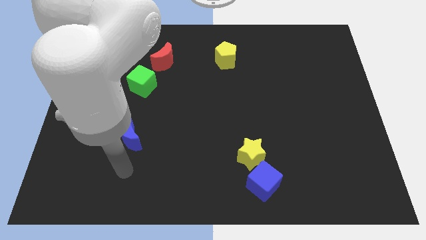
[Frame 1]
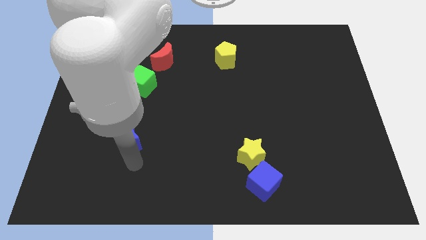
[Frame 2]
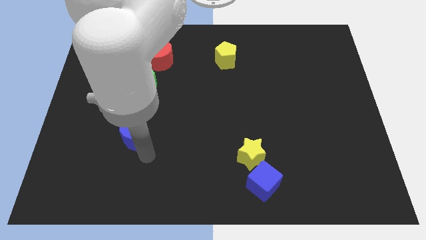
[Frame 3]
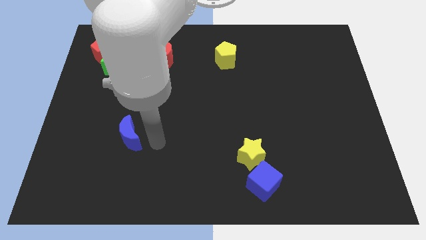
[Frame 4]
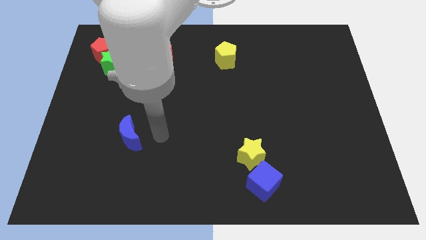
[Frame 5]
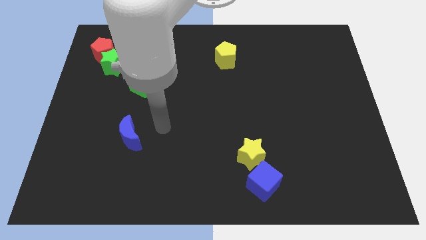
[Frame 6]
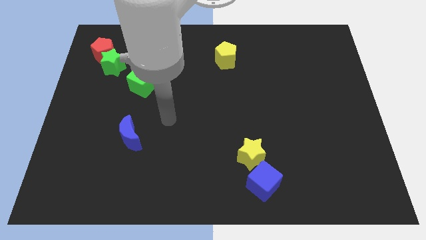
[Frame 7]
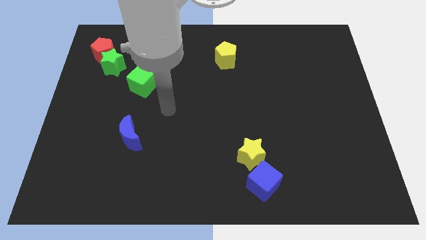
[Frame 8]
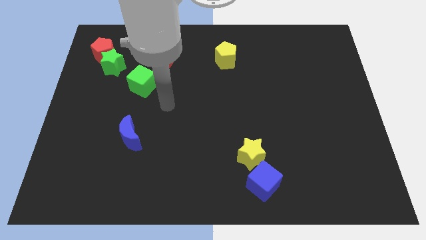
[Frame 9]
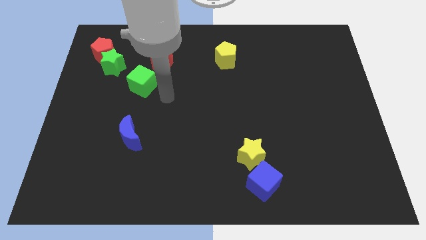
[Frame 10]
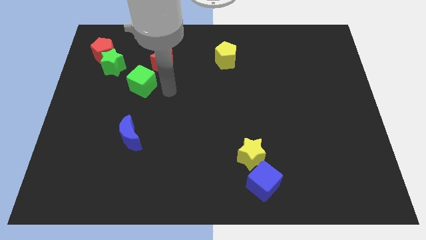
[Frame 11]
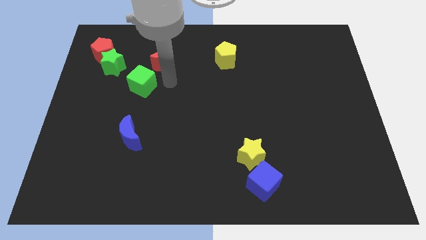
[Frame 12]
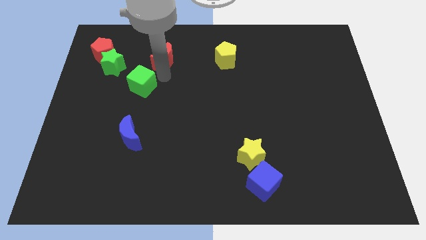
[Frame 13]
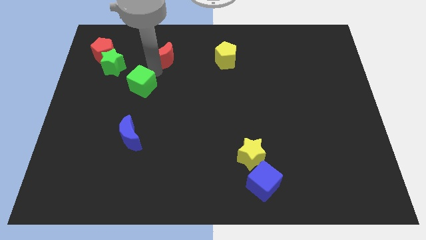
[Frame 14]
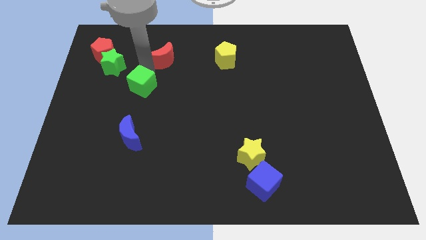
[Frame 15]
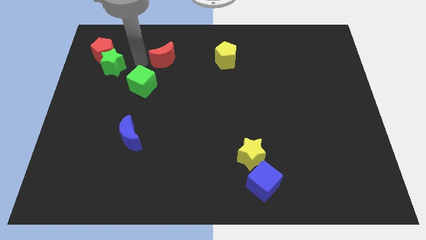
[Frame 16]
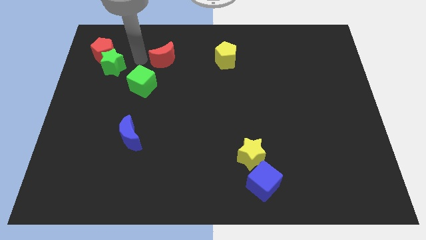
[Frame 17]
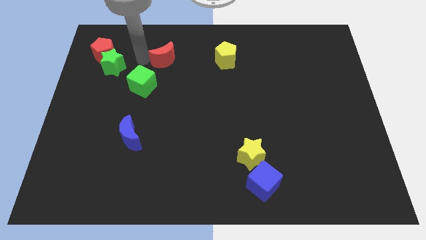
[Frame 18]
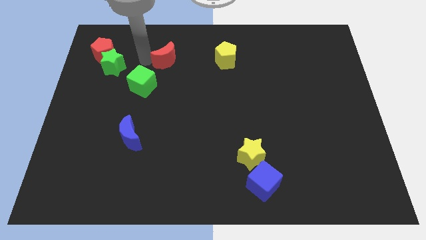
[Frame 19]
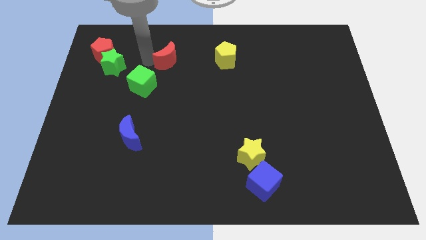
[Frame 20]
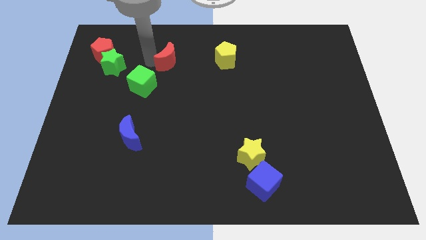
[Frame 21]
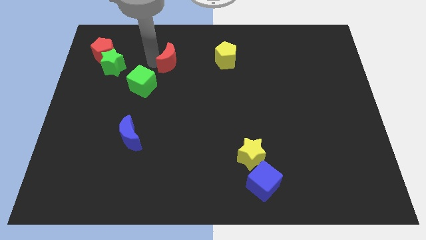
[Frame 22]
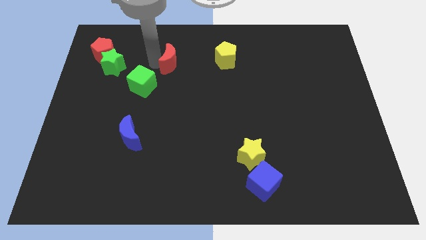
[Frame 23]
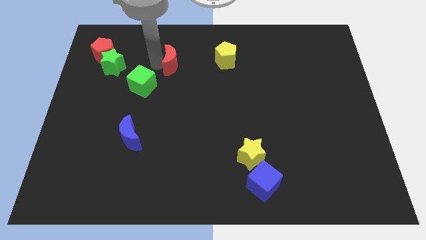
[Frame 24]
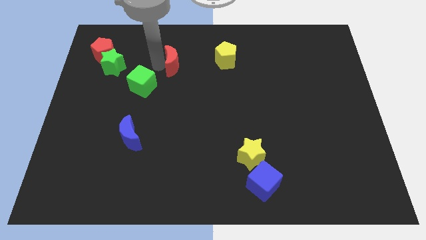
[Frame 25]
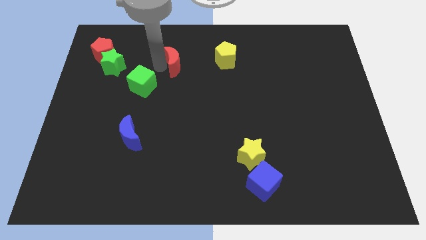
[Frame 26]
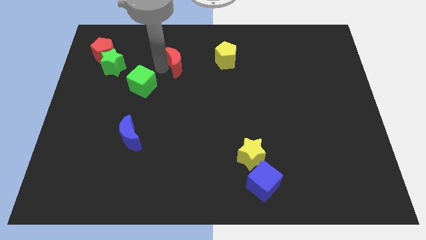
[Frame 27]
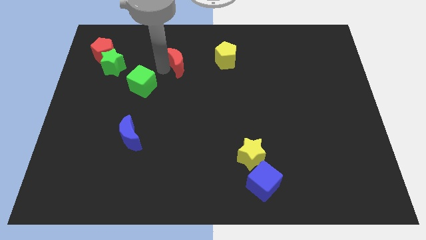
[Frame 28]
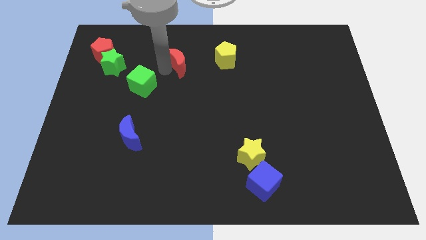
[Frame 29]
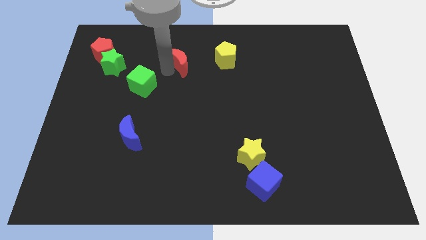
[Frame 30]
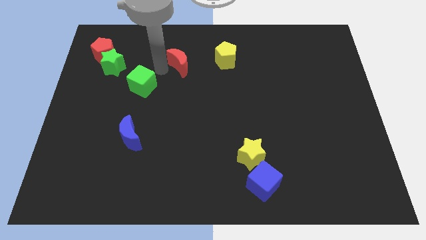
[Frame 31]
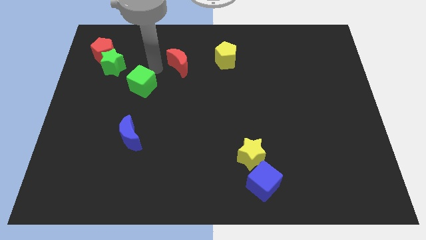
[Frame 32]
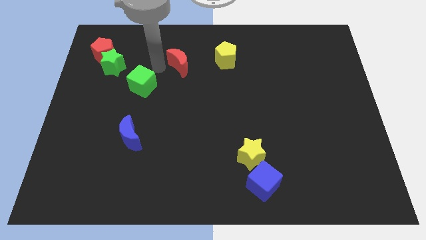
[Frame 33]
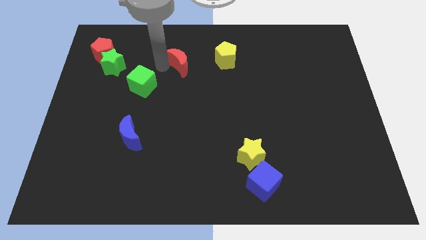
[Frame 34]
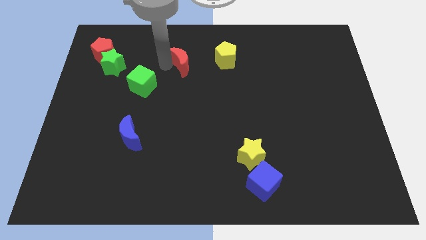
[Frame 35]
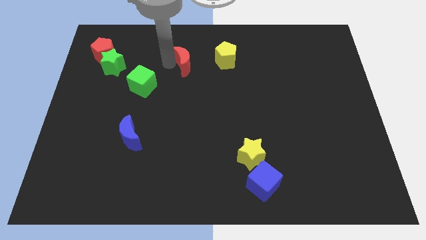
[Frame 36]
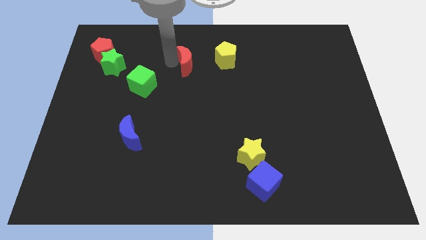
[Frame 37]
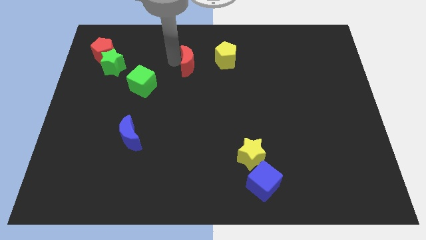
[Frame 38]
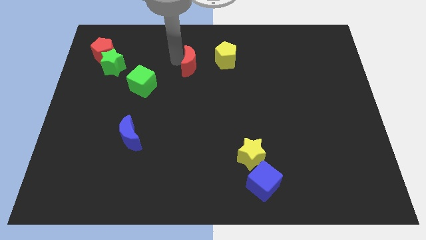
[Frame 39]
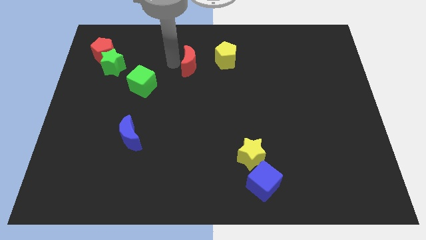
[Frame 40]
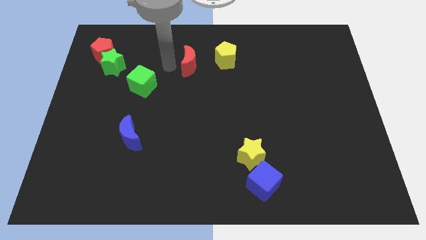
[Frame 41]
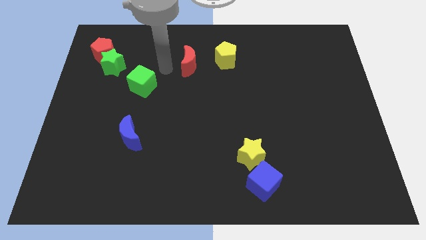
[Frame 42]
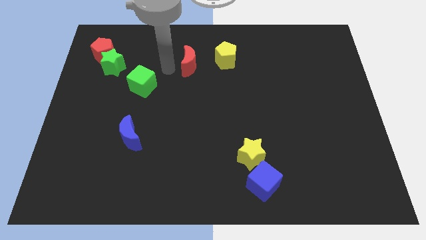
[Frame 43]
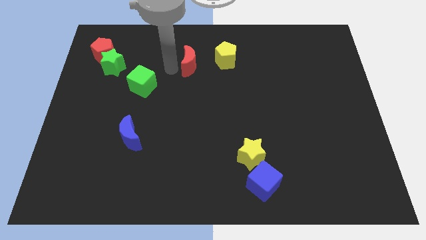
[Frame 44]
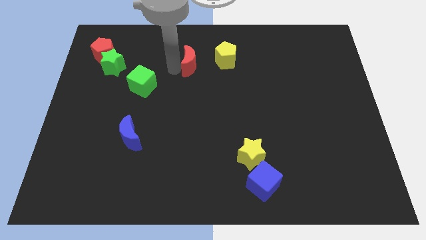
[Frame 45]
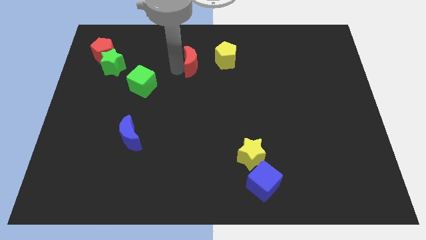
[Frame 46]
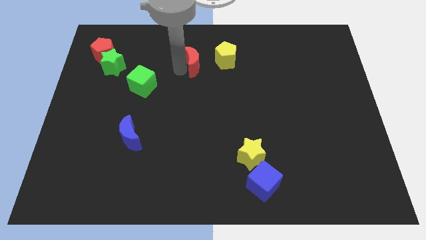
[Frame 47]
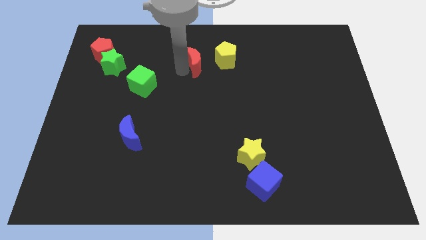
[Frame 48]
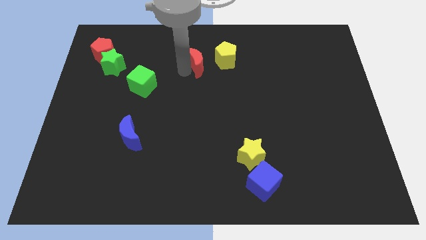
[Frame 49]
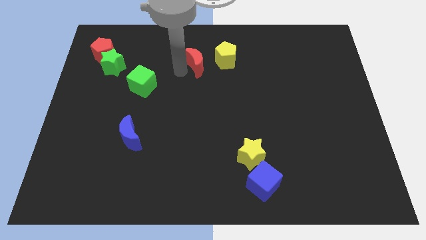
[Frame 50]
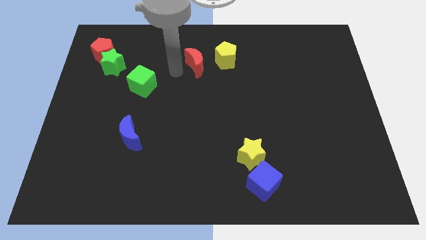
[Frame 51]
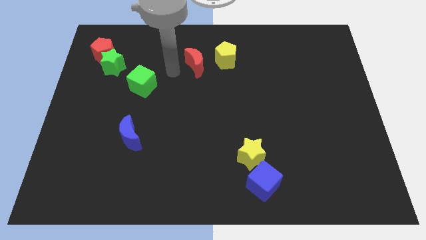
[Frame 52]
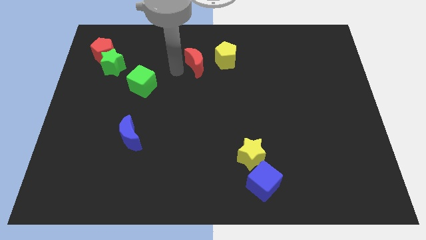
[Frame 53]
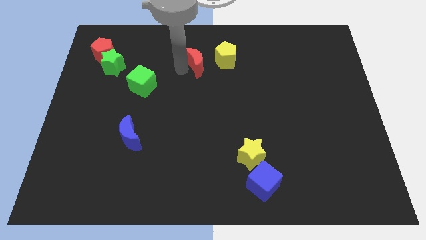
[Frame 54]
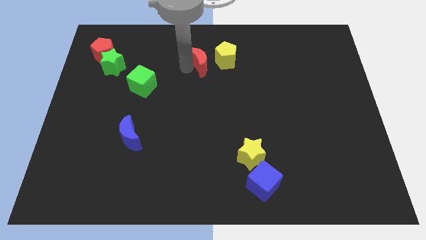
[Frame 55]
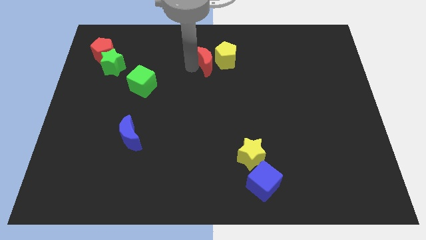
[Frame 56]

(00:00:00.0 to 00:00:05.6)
put the red moon to the yellow pentagon

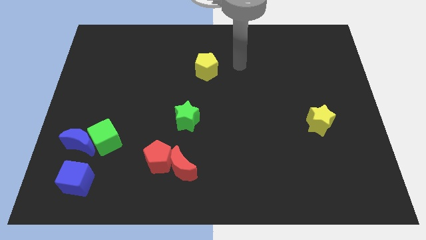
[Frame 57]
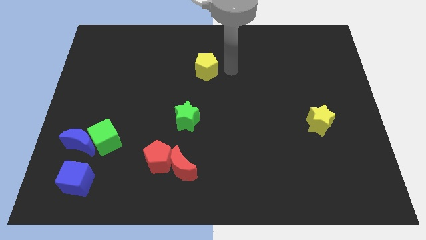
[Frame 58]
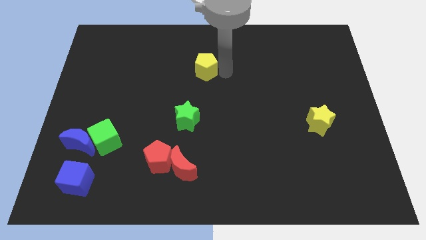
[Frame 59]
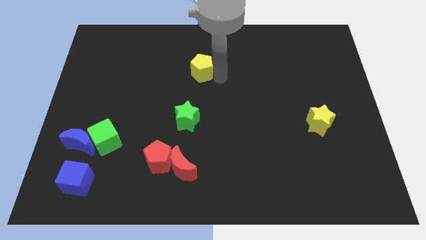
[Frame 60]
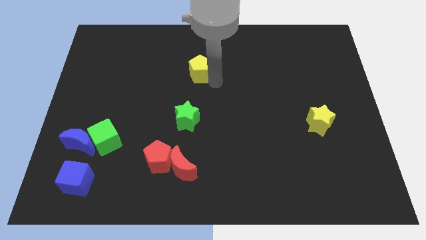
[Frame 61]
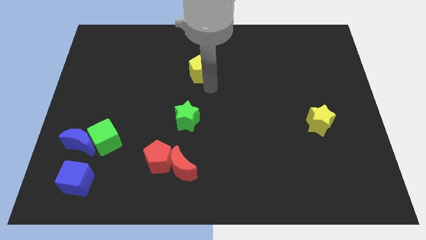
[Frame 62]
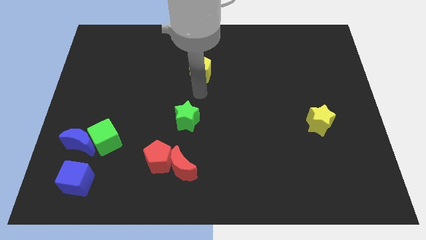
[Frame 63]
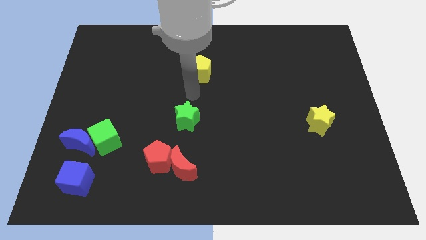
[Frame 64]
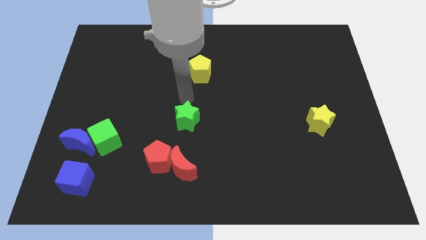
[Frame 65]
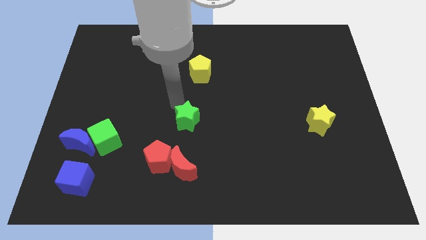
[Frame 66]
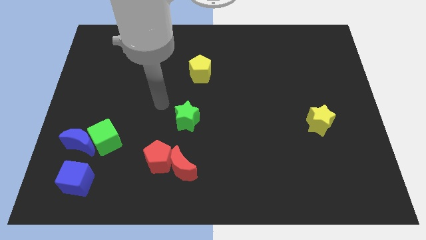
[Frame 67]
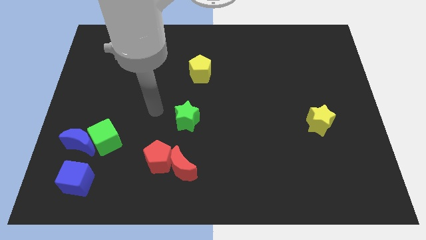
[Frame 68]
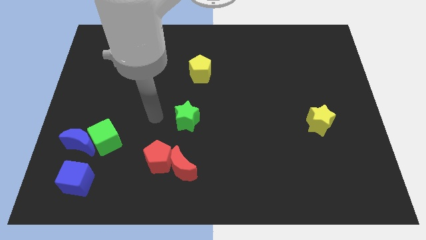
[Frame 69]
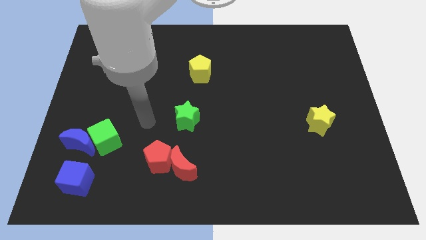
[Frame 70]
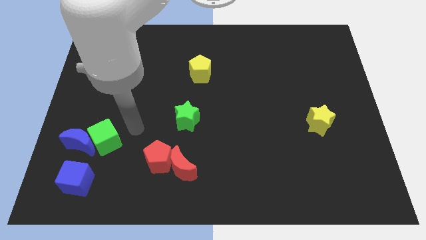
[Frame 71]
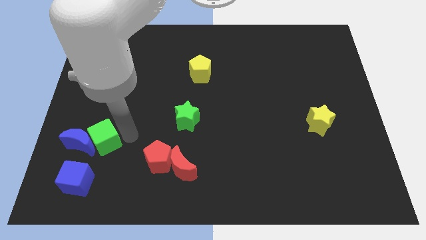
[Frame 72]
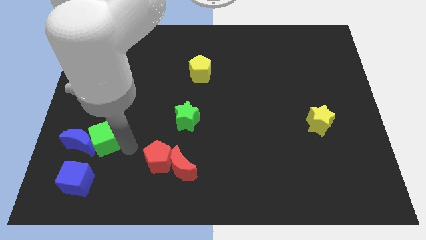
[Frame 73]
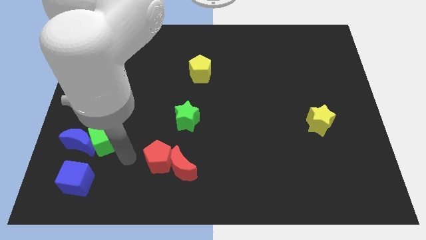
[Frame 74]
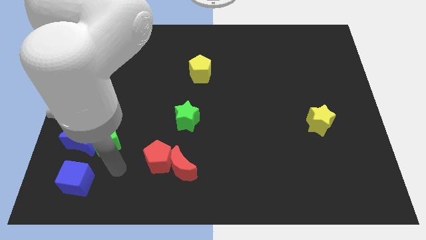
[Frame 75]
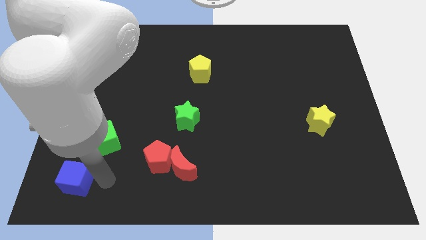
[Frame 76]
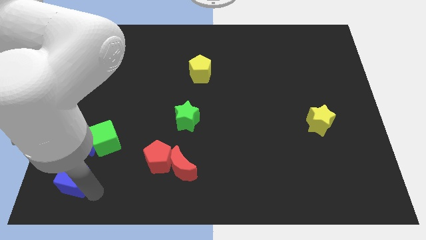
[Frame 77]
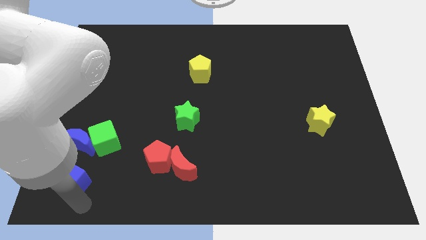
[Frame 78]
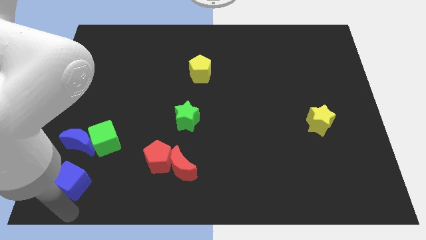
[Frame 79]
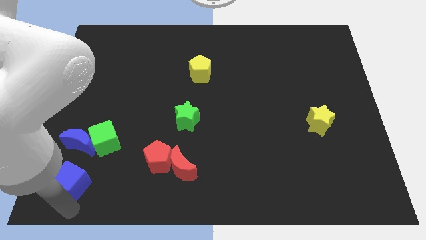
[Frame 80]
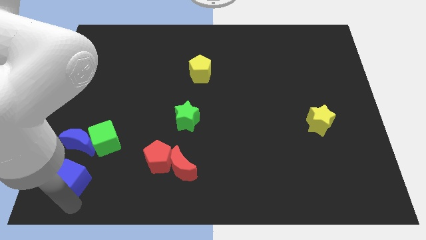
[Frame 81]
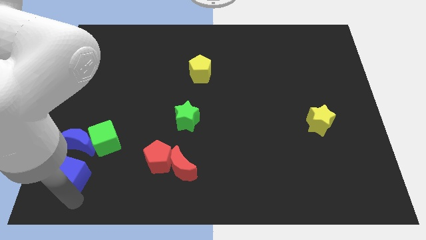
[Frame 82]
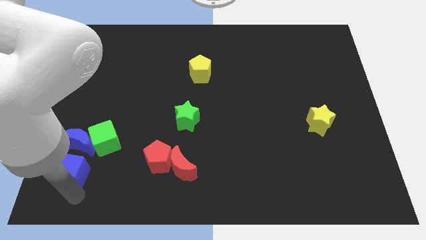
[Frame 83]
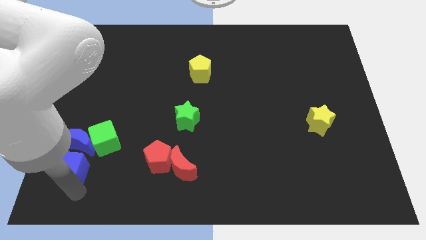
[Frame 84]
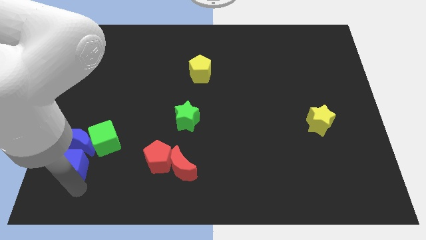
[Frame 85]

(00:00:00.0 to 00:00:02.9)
push the blue cube close to the blue moon
